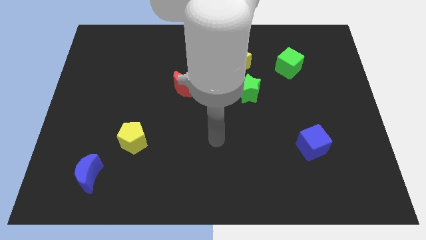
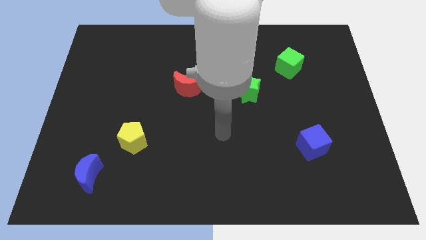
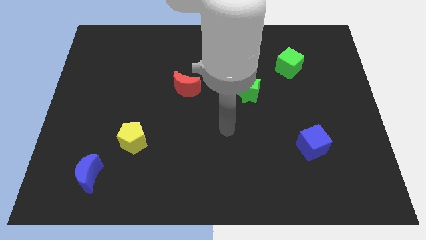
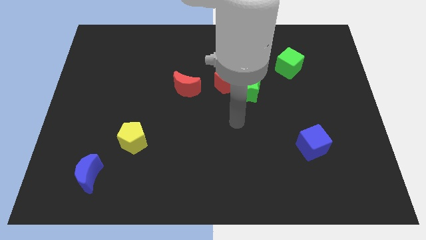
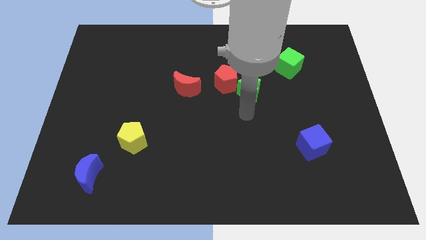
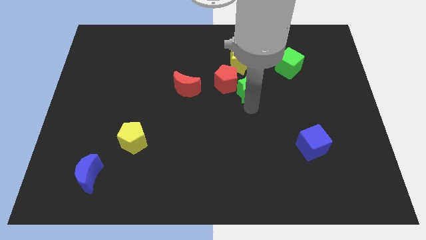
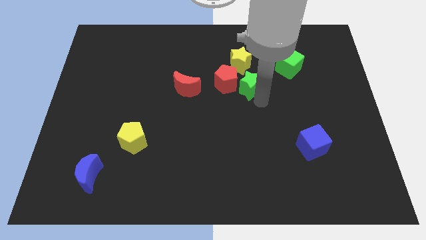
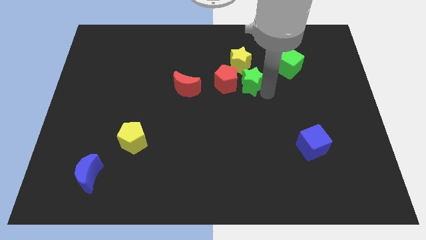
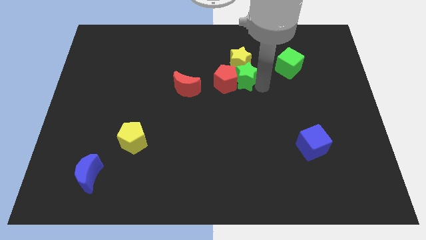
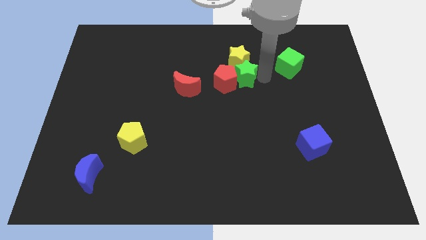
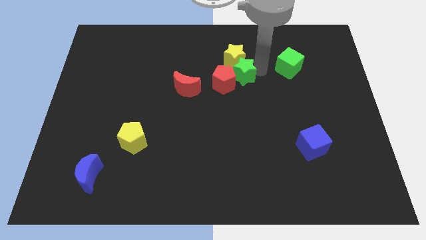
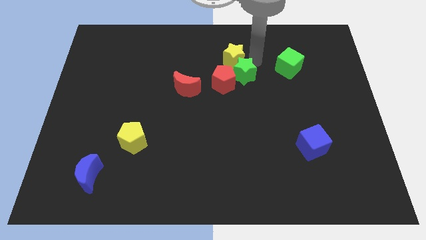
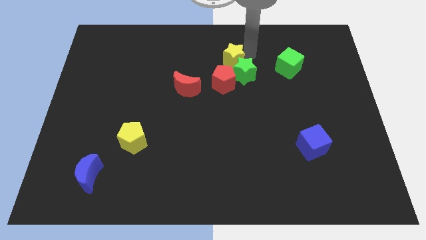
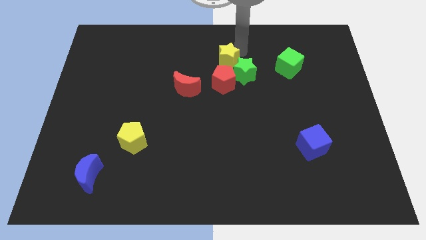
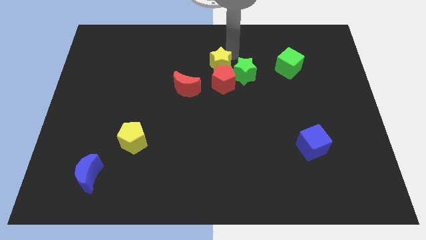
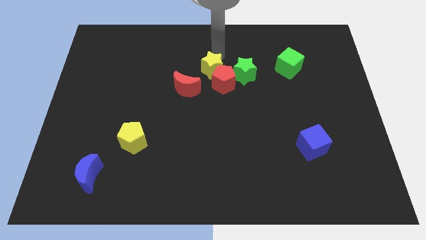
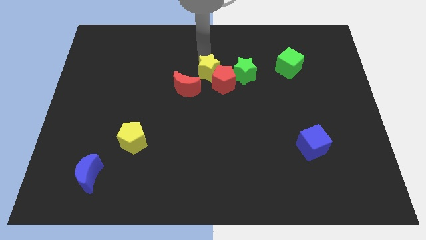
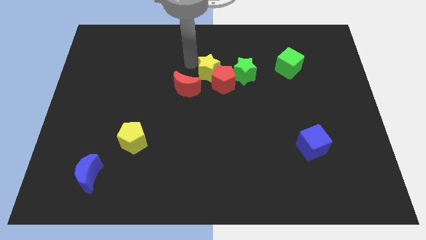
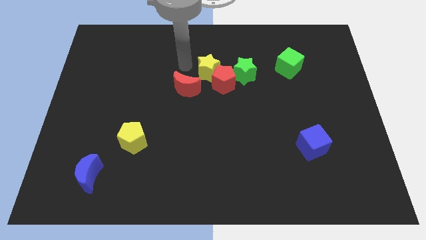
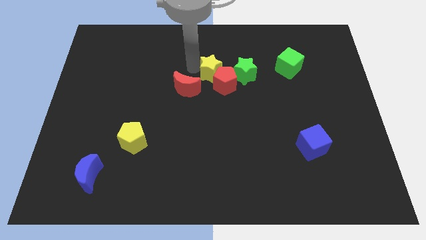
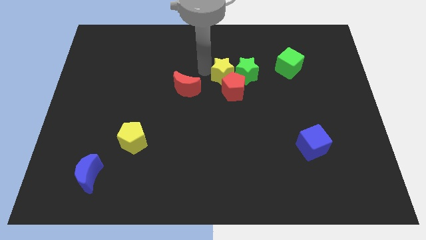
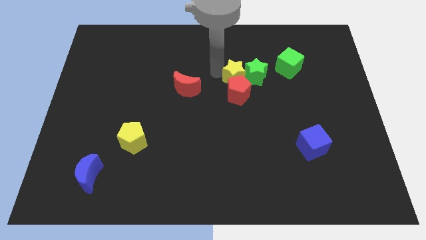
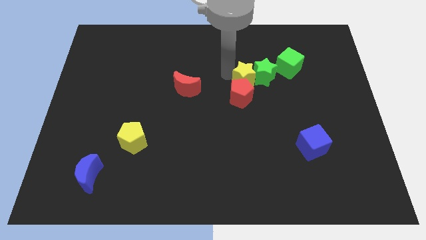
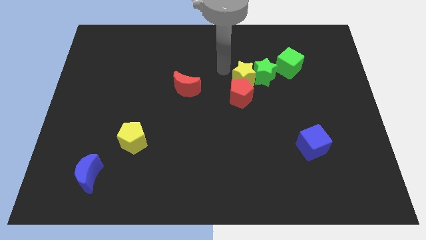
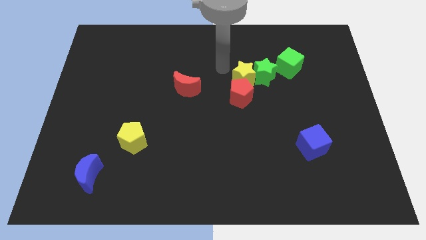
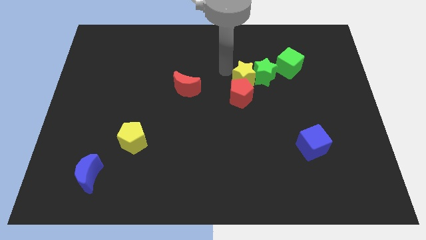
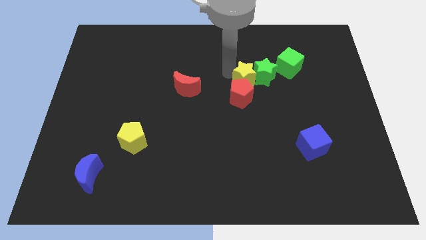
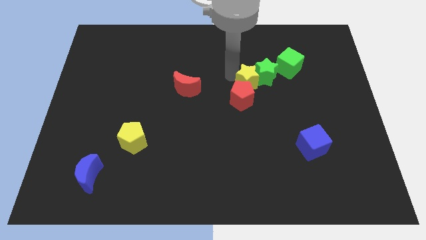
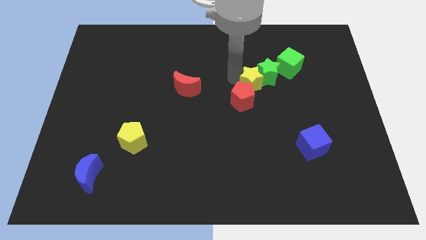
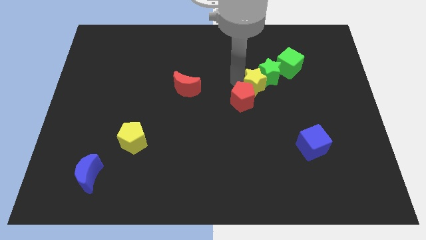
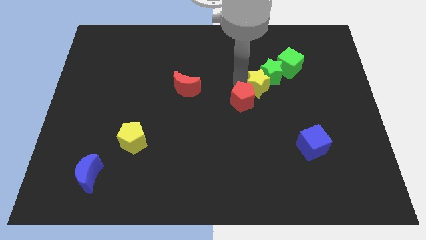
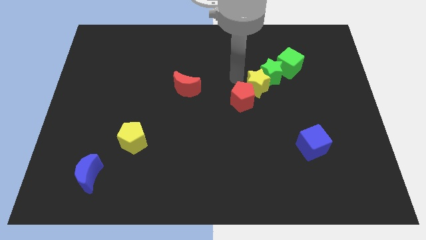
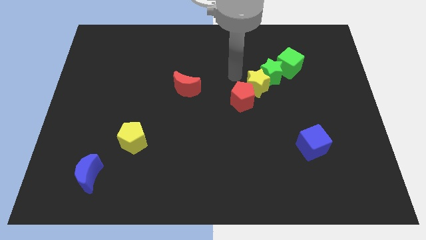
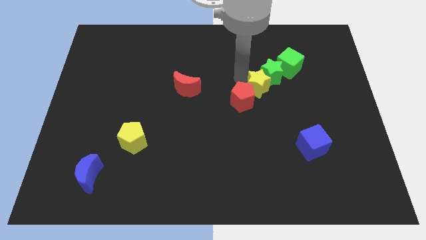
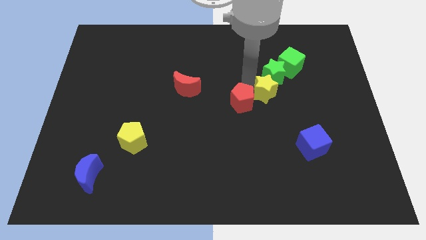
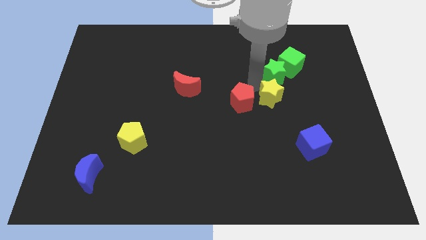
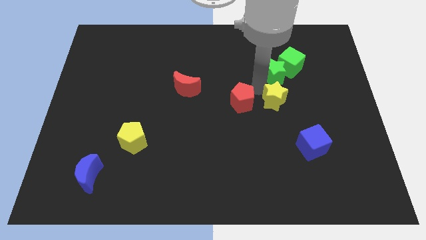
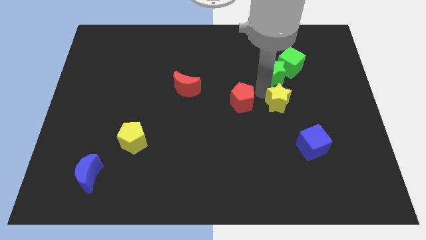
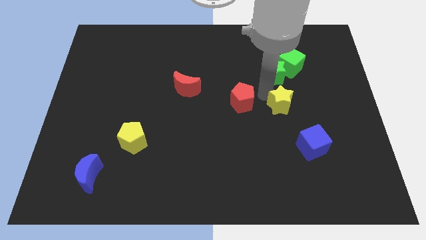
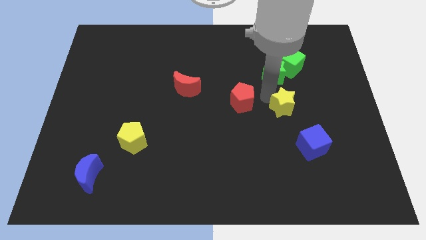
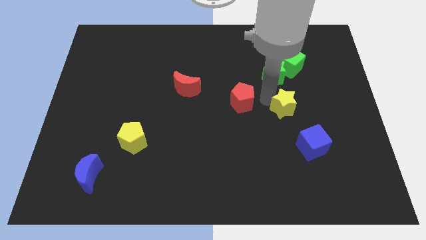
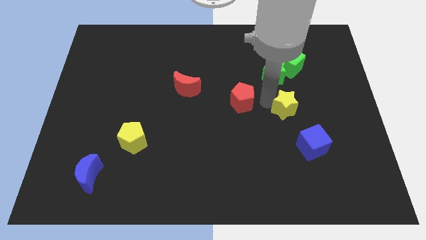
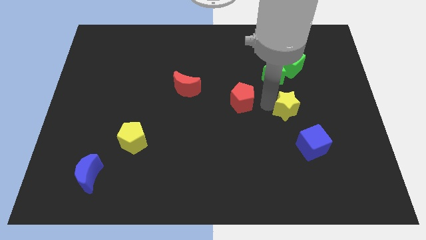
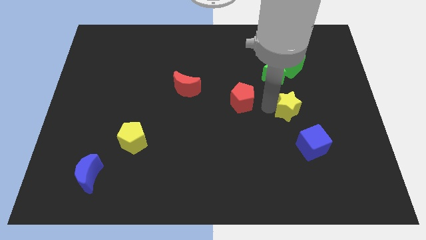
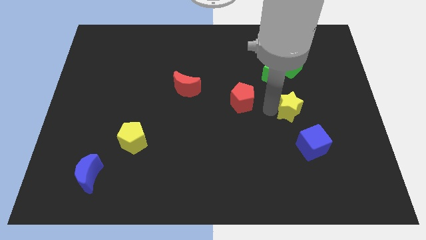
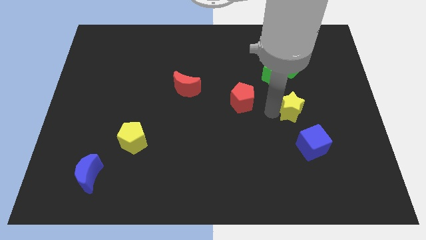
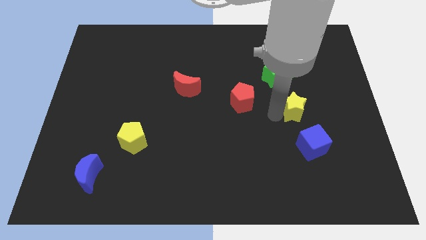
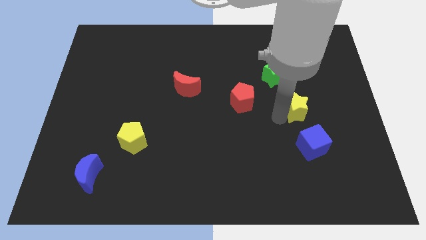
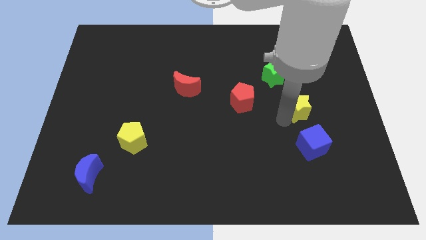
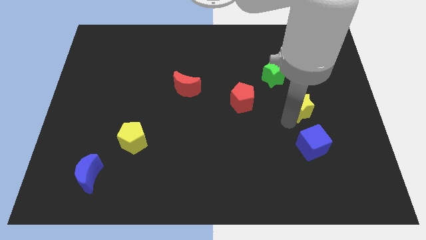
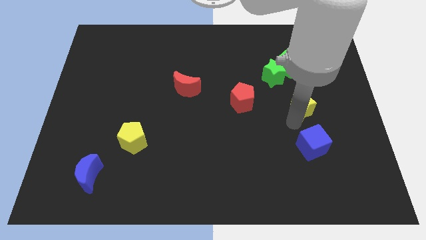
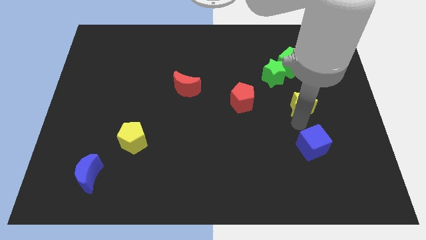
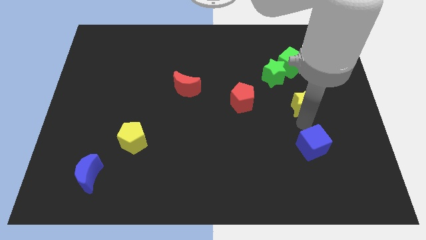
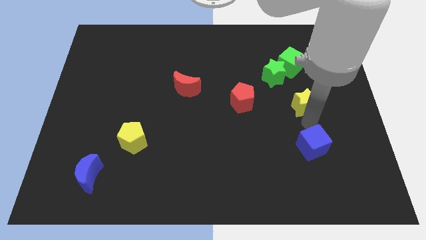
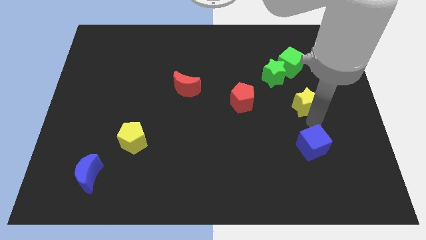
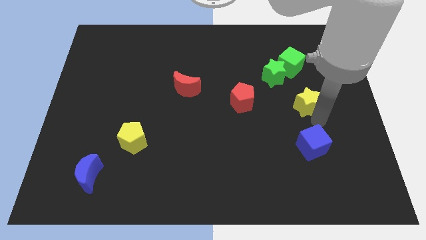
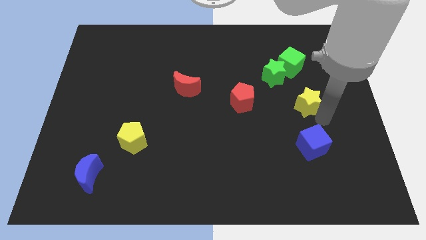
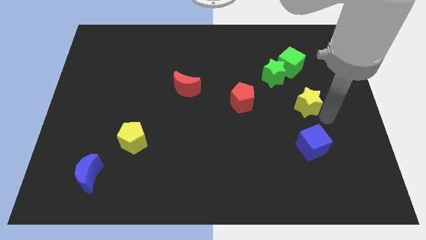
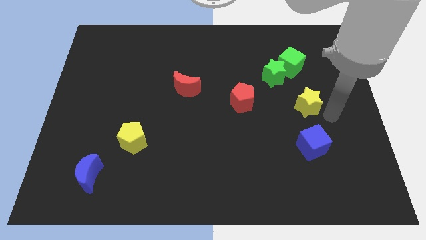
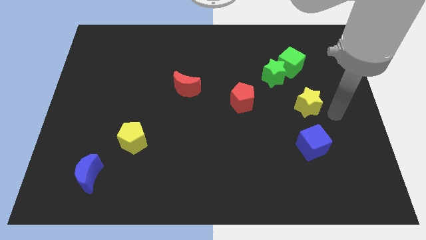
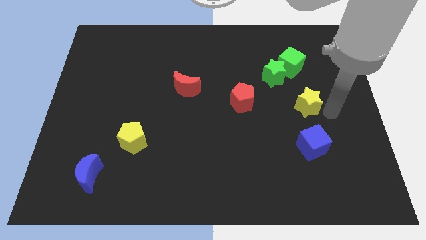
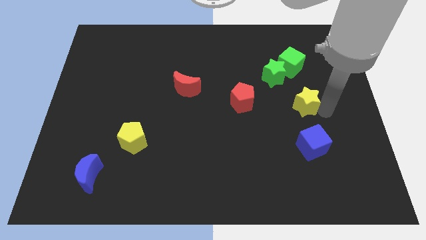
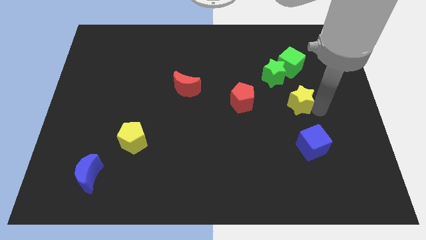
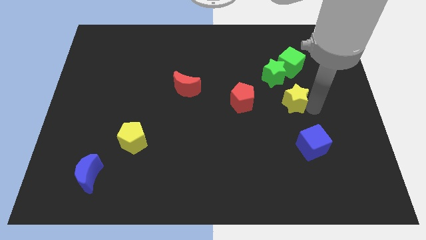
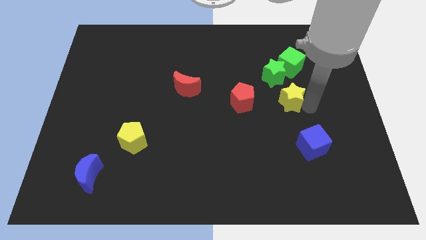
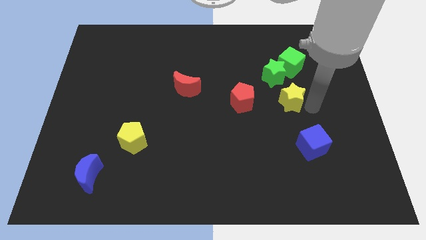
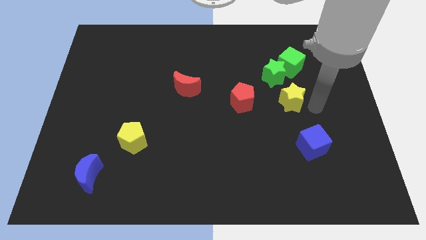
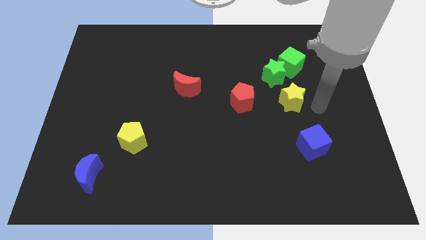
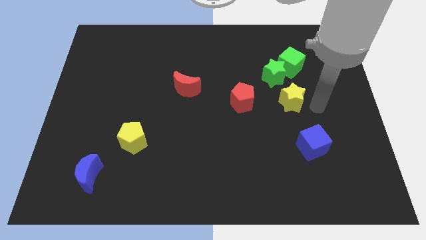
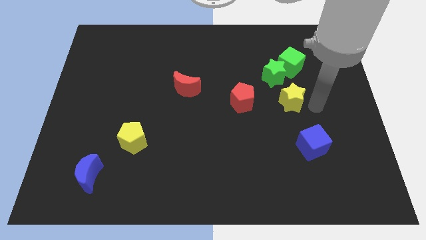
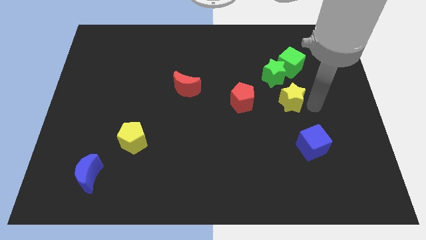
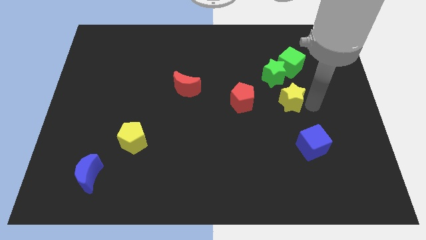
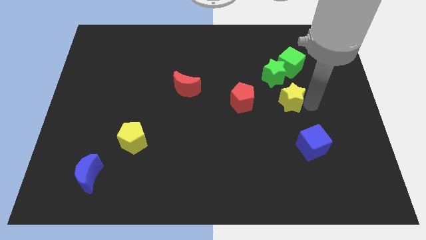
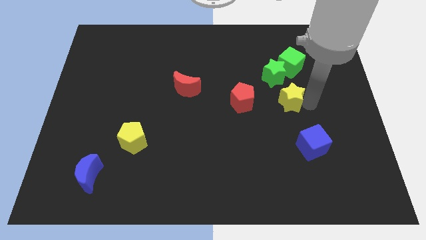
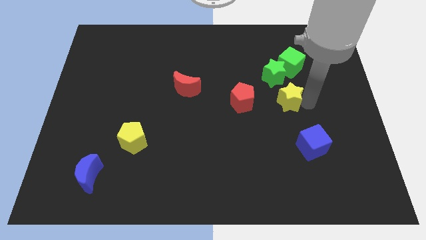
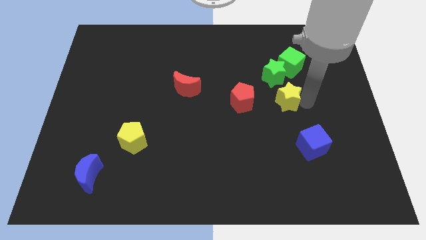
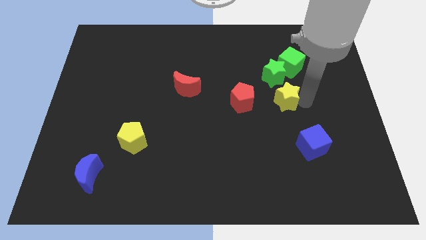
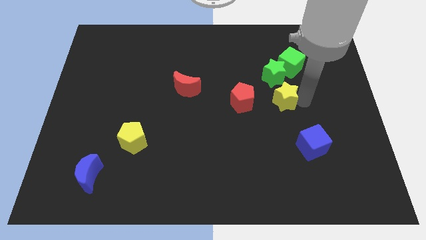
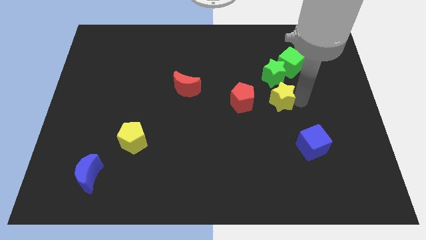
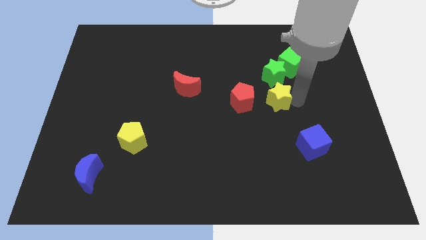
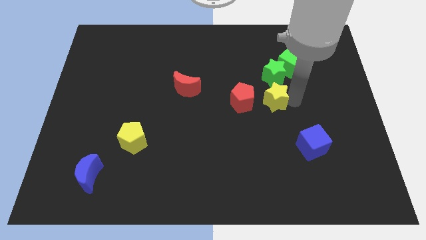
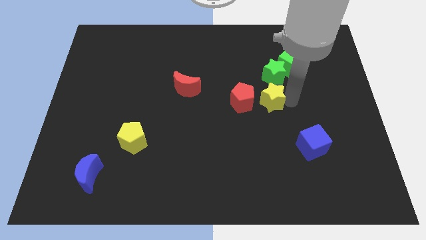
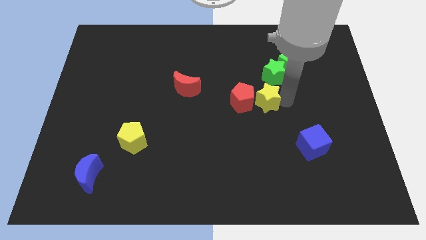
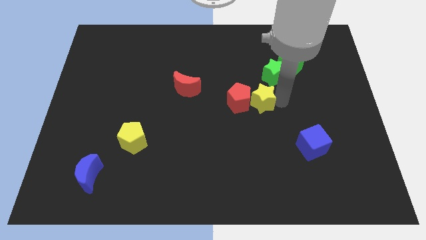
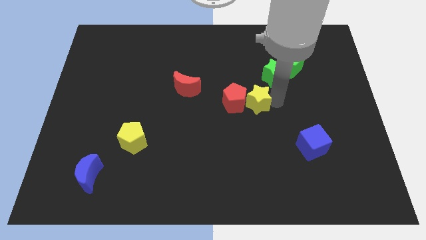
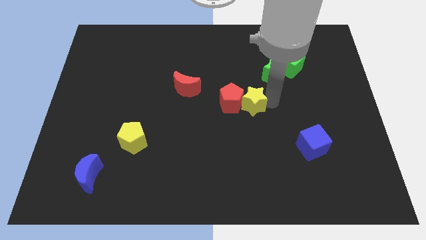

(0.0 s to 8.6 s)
push the yellow star to the right of the red pentagon
